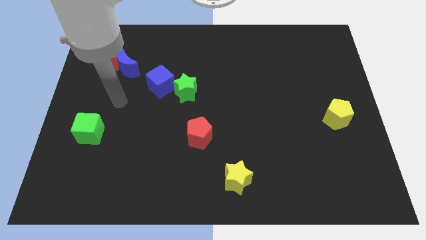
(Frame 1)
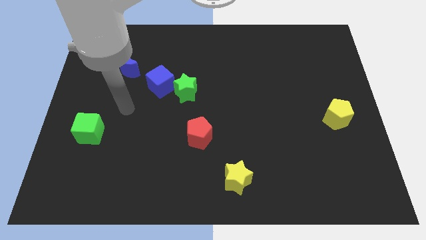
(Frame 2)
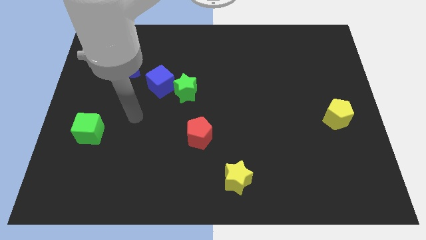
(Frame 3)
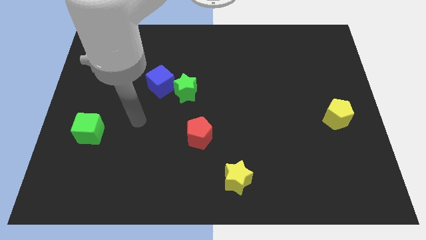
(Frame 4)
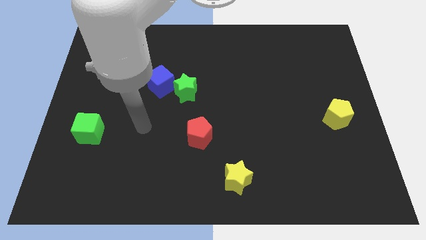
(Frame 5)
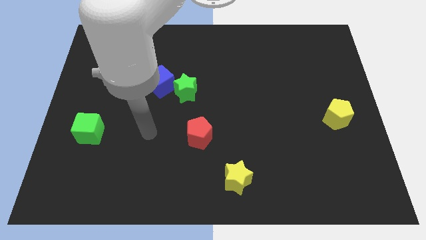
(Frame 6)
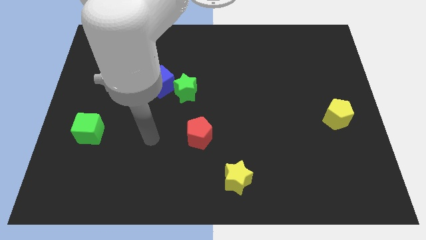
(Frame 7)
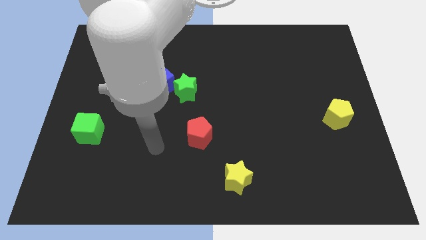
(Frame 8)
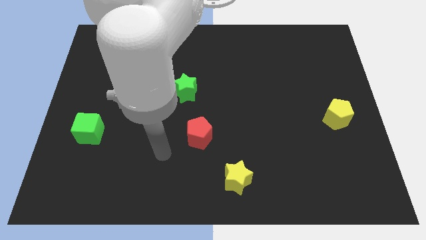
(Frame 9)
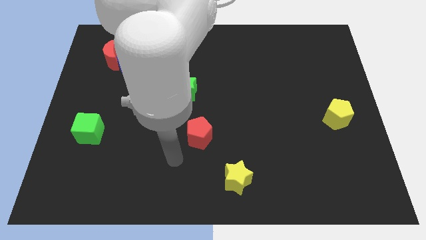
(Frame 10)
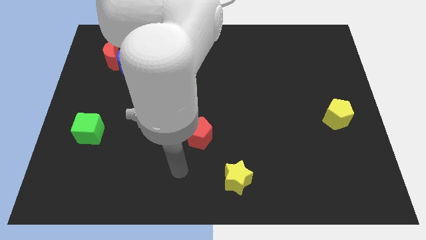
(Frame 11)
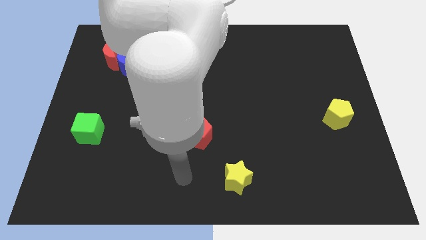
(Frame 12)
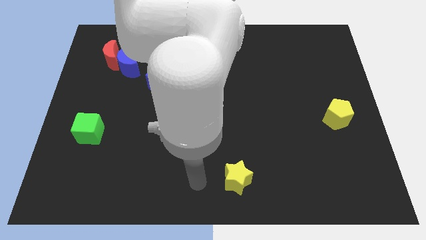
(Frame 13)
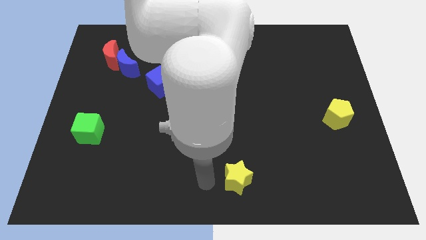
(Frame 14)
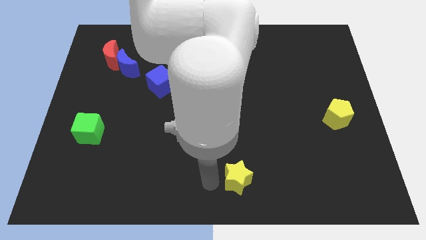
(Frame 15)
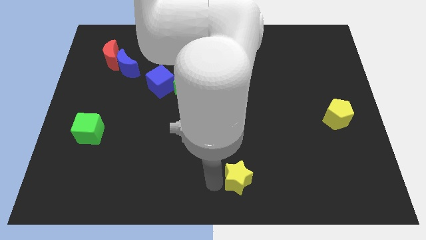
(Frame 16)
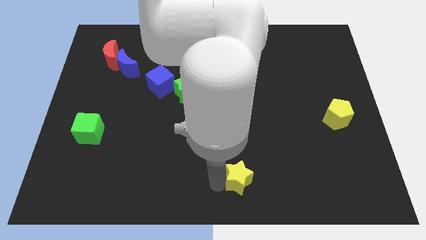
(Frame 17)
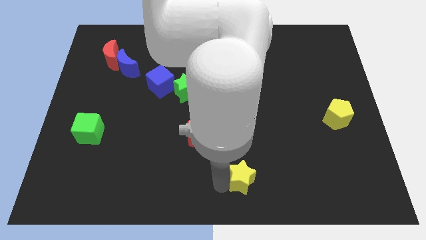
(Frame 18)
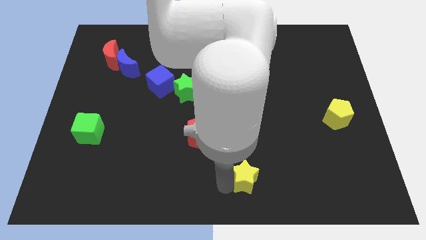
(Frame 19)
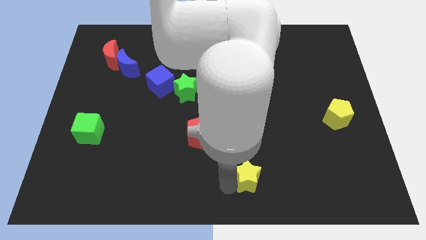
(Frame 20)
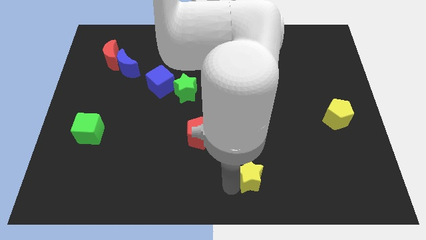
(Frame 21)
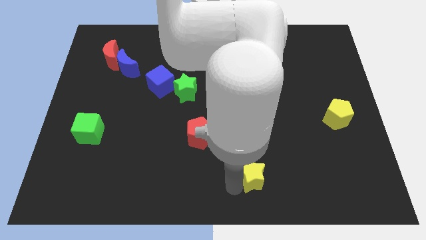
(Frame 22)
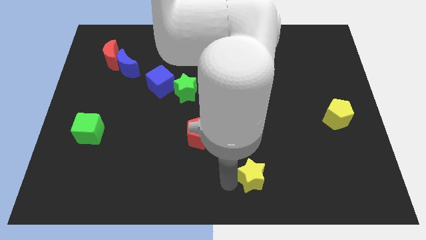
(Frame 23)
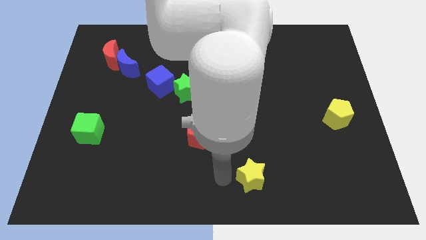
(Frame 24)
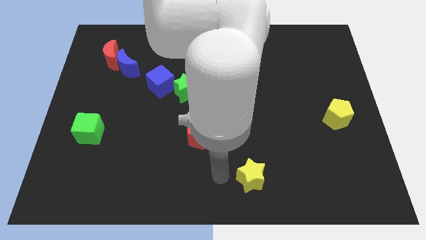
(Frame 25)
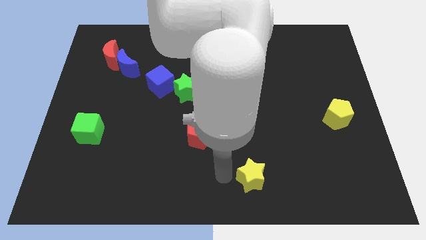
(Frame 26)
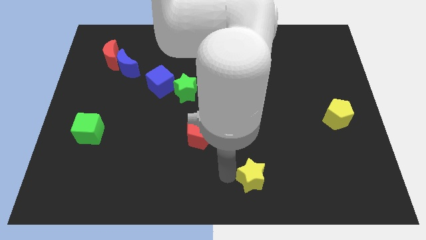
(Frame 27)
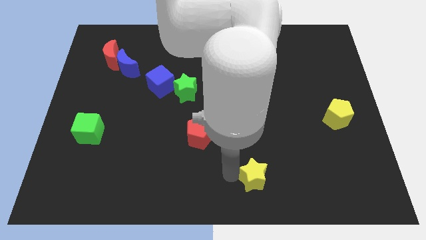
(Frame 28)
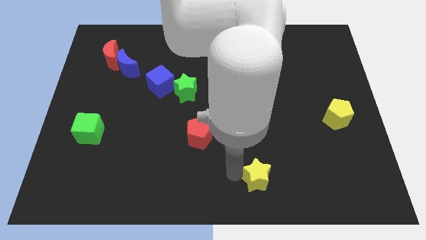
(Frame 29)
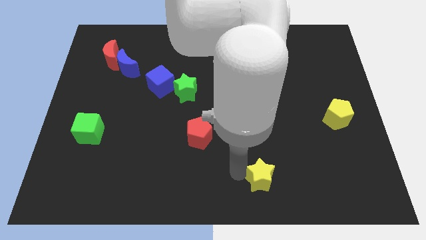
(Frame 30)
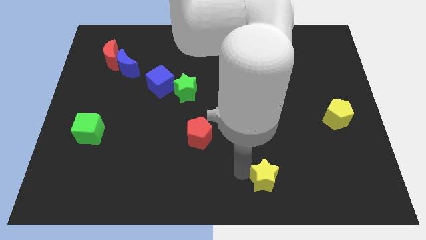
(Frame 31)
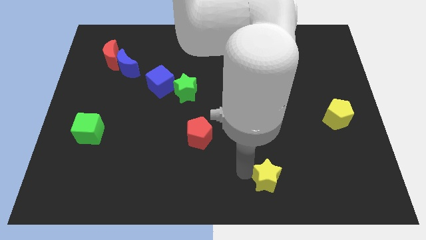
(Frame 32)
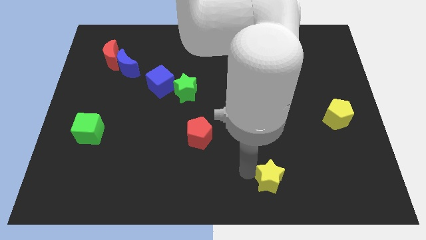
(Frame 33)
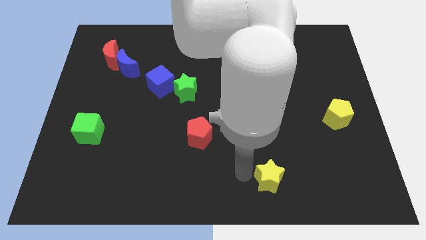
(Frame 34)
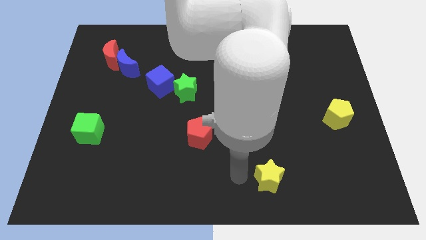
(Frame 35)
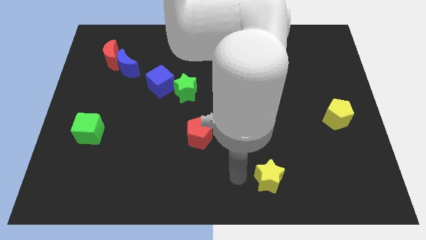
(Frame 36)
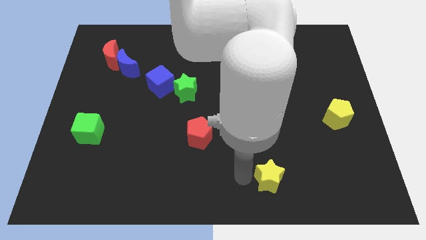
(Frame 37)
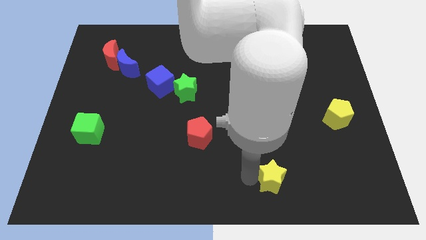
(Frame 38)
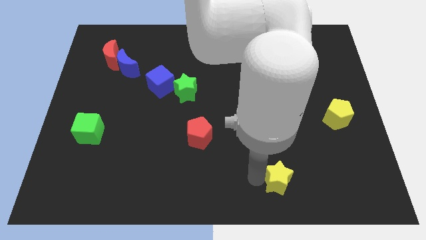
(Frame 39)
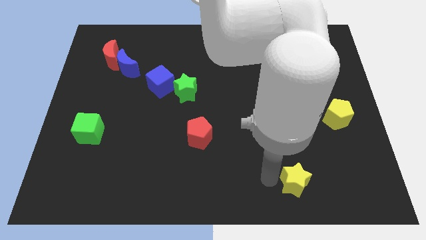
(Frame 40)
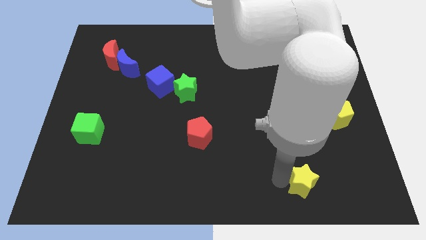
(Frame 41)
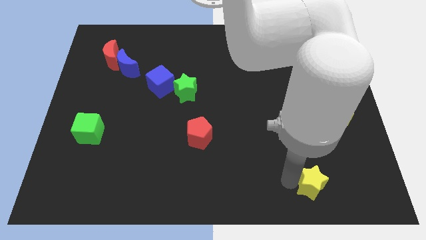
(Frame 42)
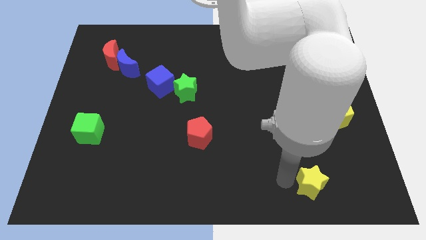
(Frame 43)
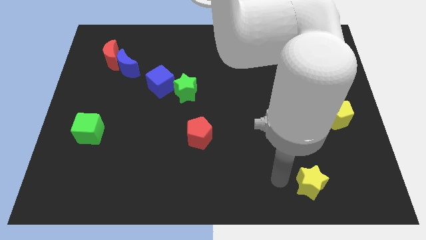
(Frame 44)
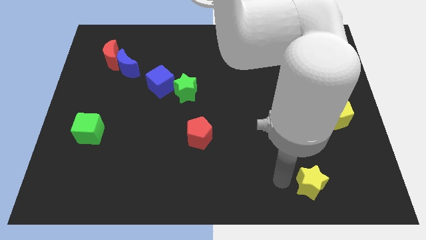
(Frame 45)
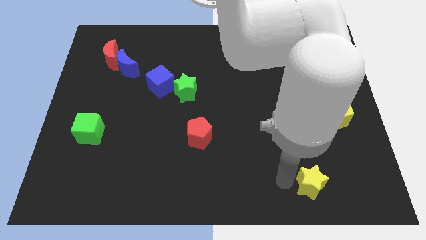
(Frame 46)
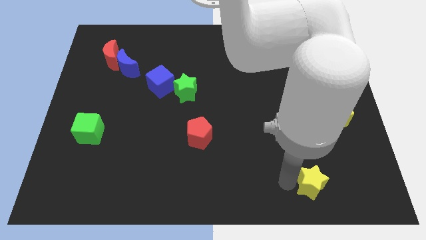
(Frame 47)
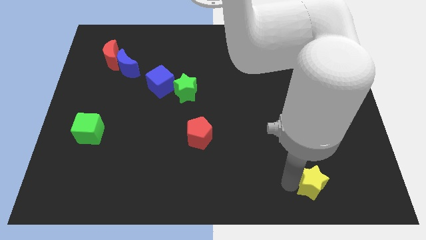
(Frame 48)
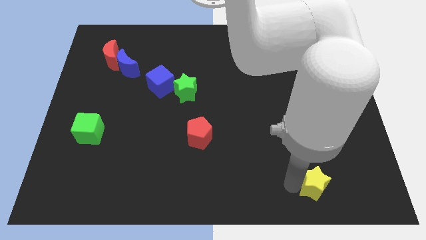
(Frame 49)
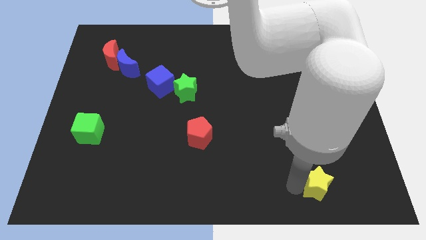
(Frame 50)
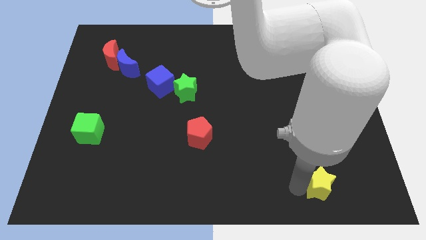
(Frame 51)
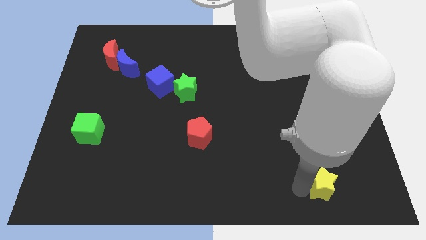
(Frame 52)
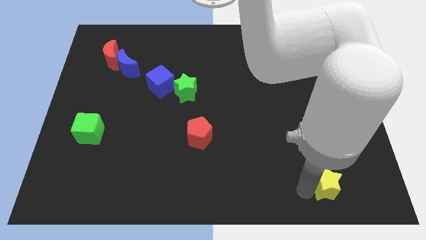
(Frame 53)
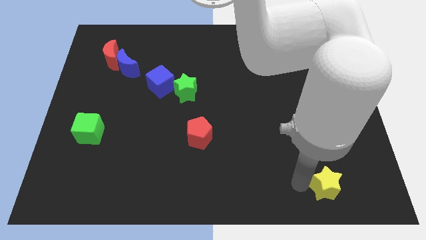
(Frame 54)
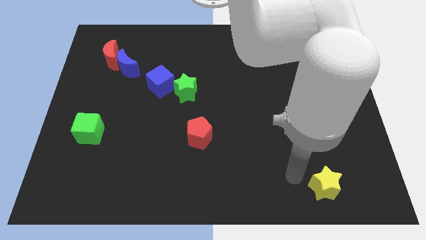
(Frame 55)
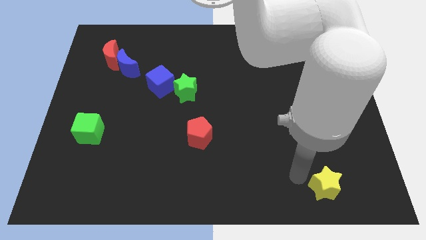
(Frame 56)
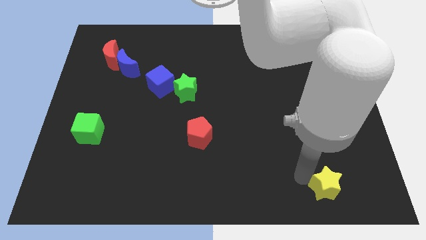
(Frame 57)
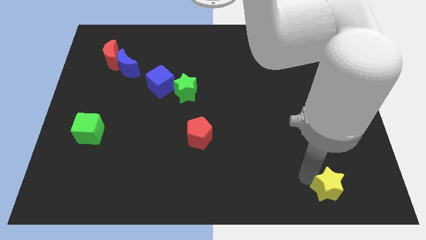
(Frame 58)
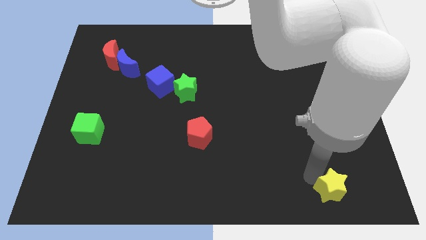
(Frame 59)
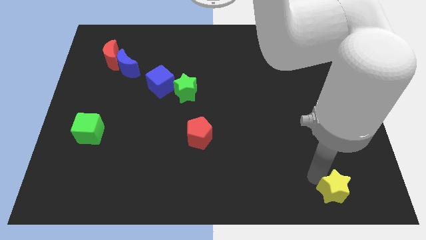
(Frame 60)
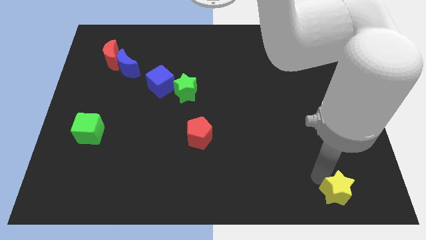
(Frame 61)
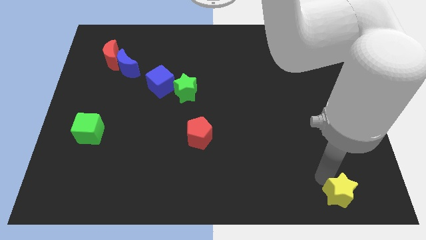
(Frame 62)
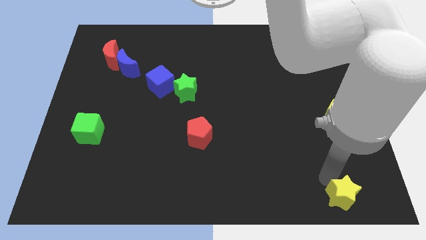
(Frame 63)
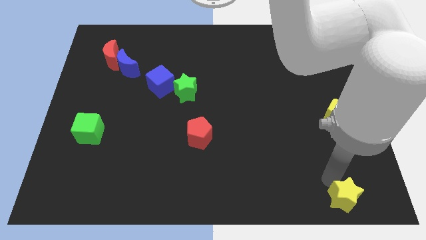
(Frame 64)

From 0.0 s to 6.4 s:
push the yellow star to the lower right corner
